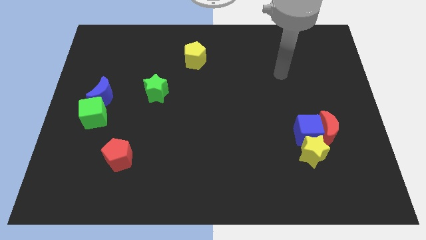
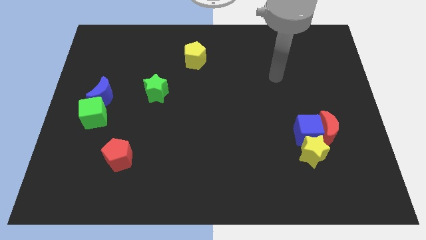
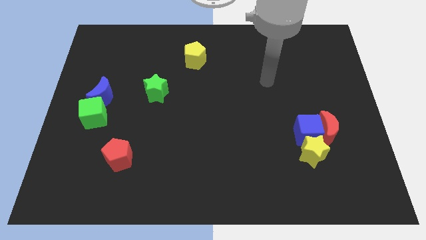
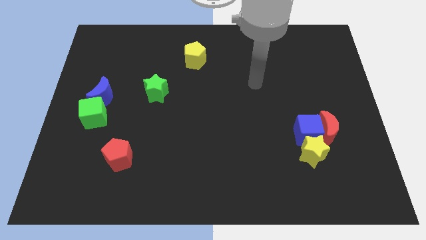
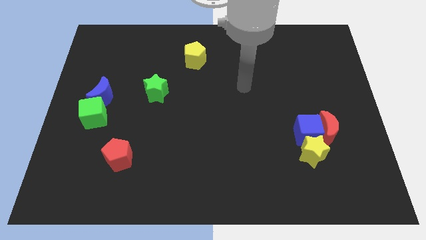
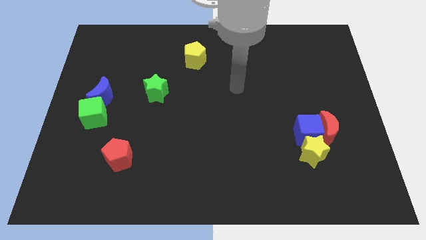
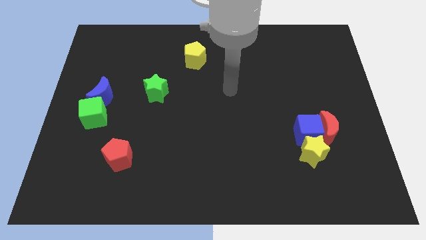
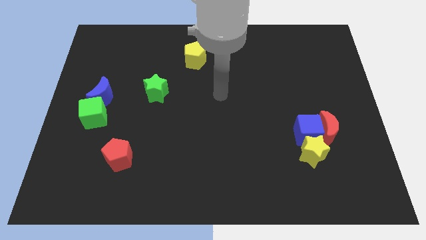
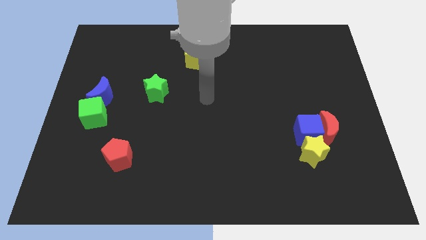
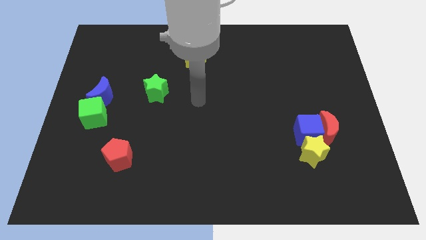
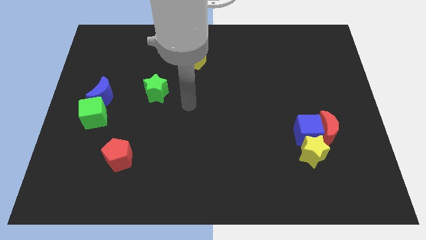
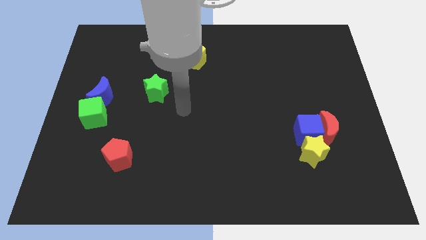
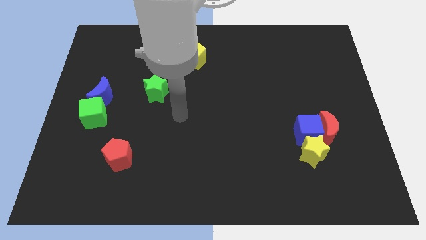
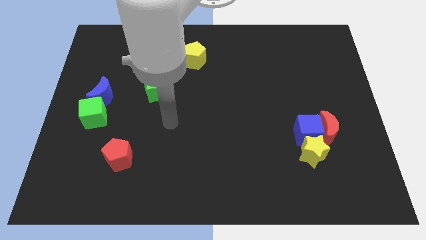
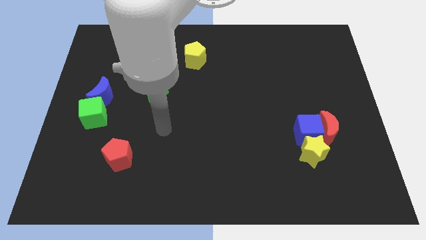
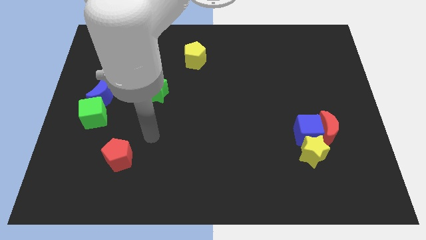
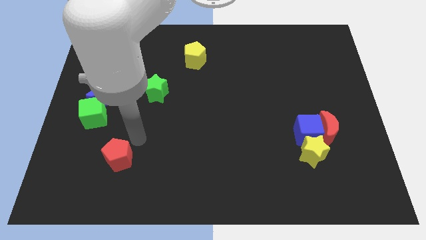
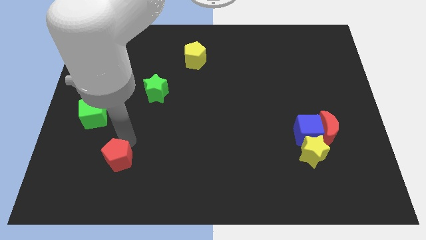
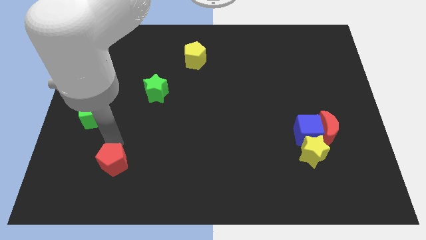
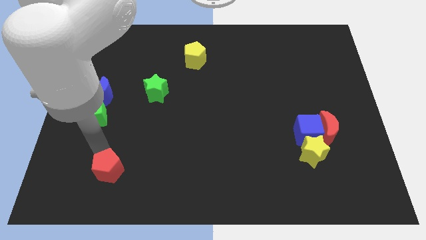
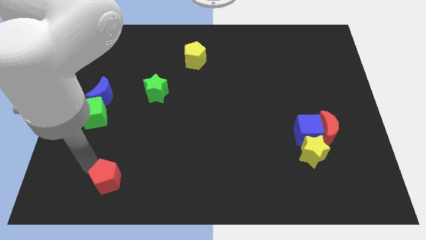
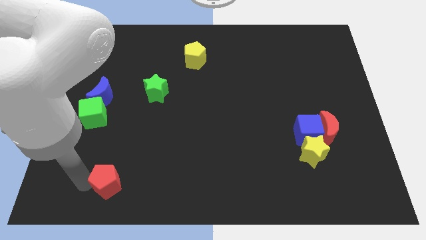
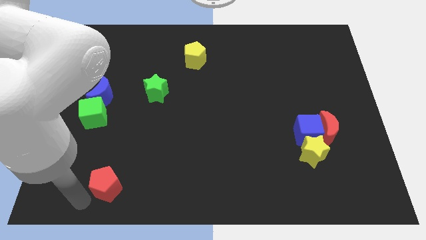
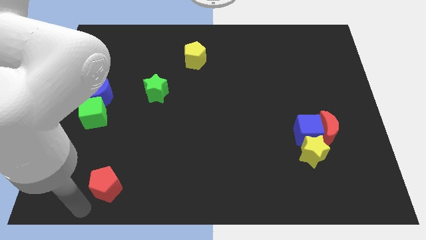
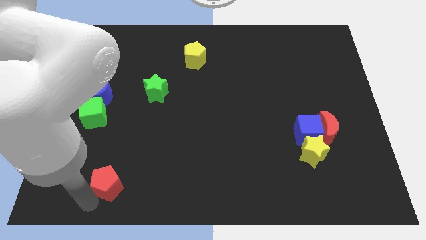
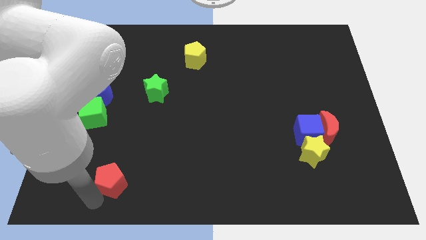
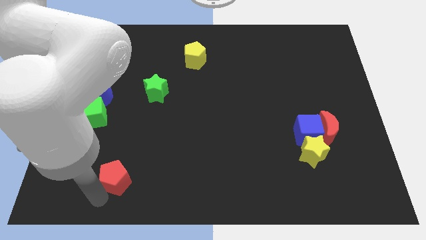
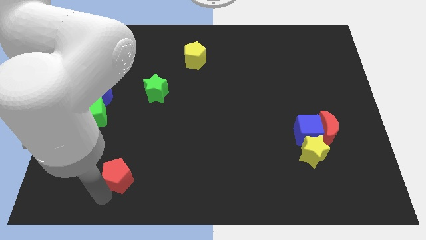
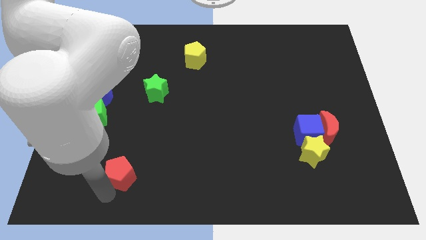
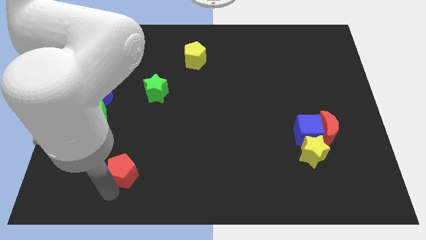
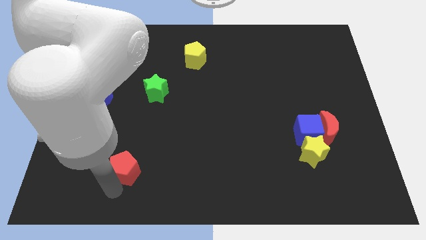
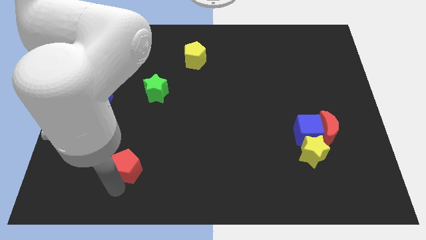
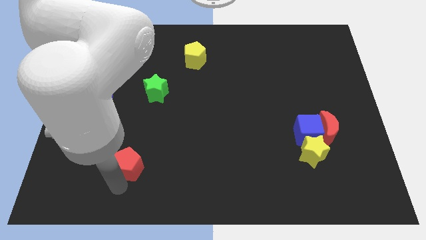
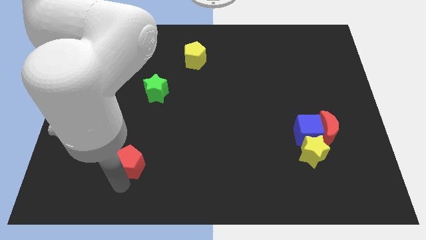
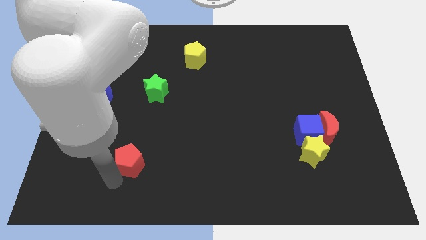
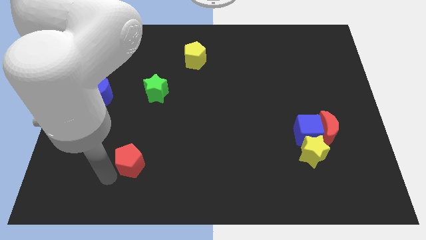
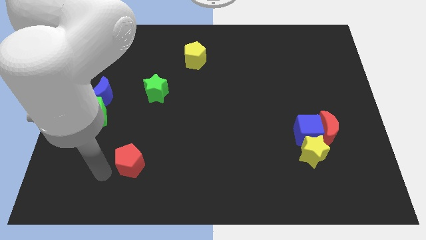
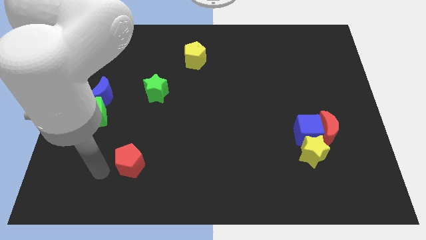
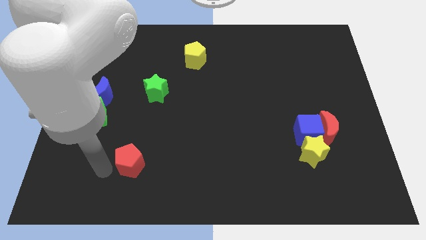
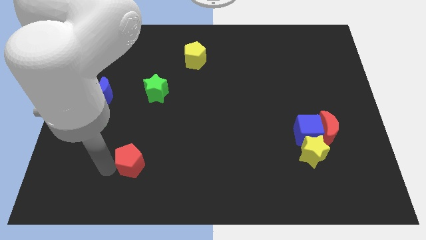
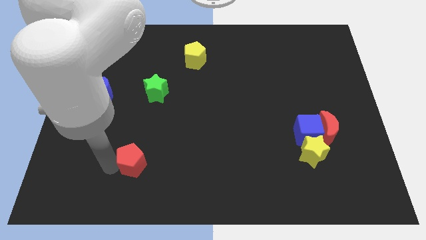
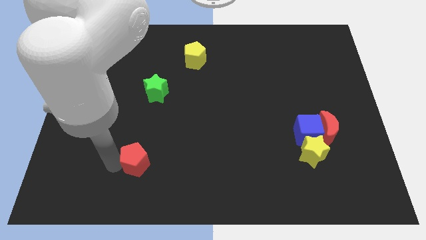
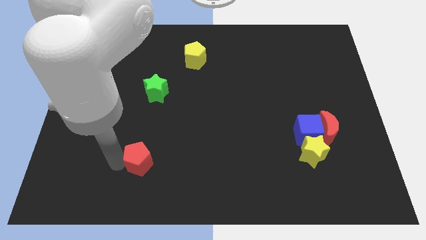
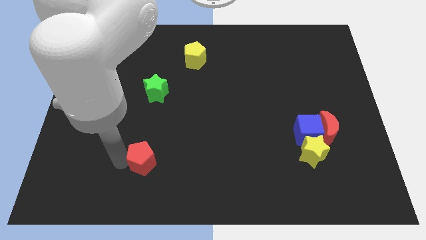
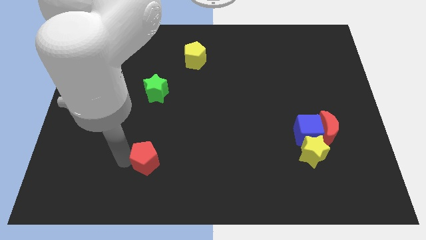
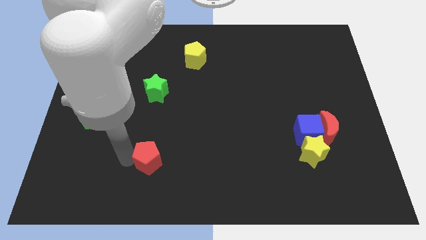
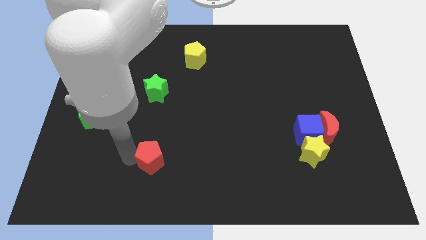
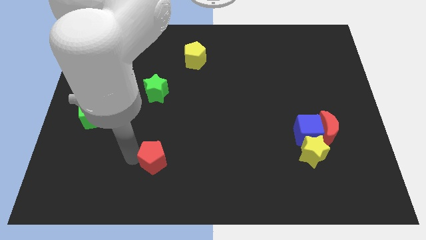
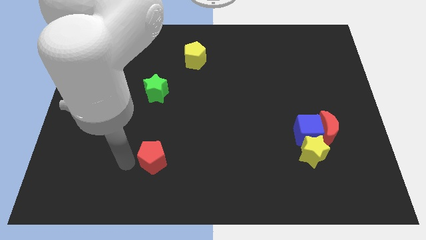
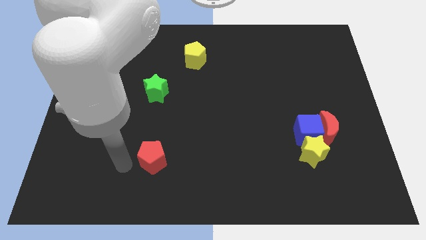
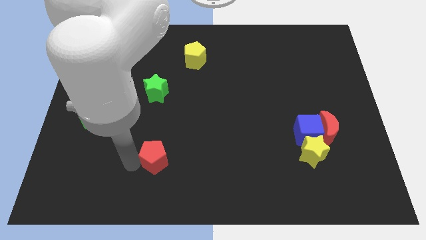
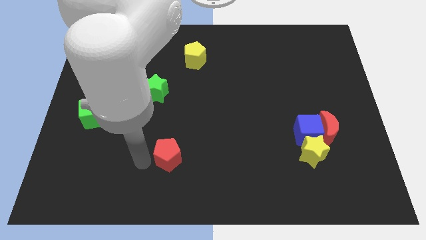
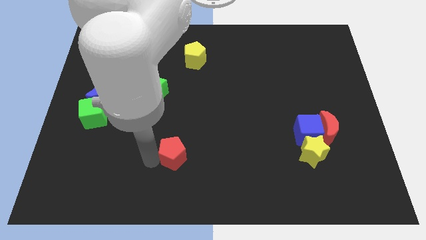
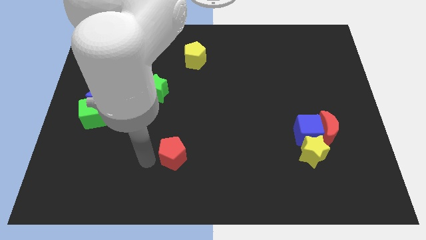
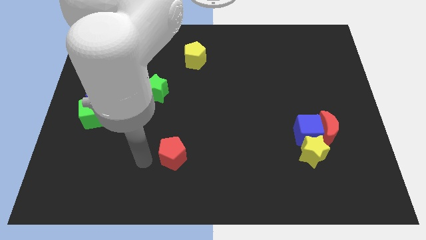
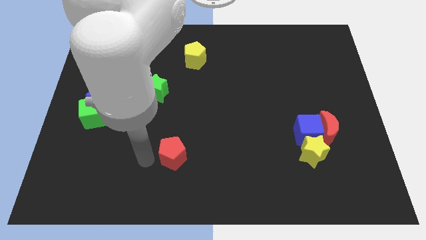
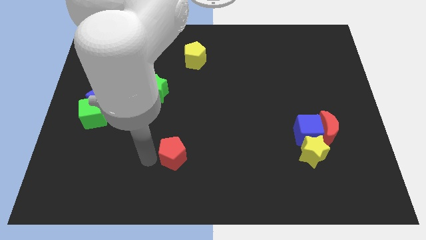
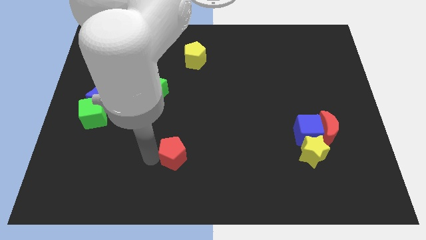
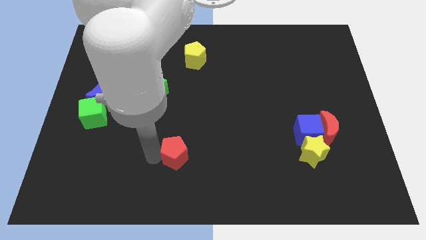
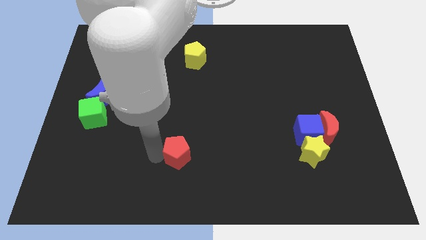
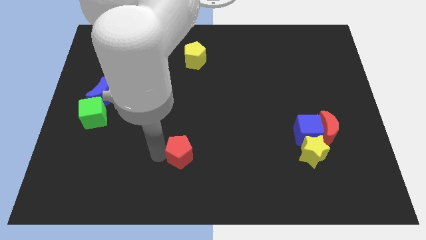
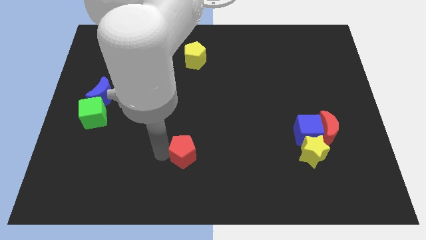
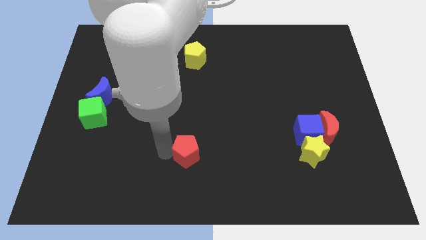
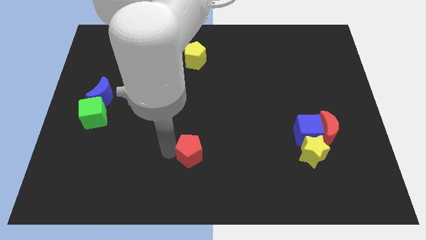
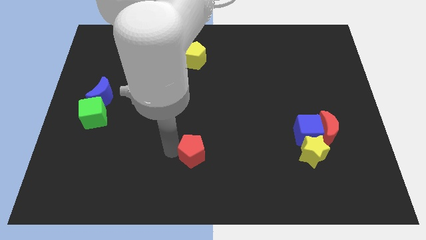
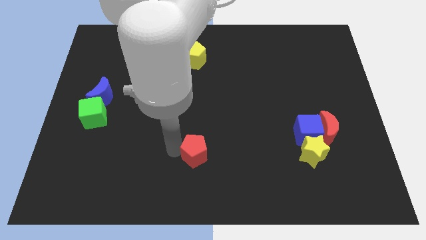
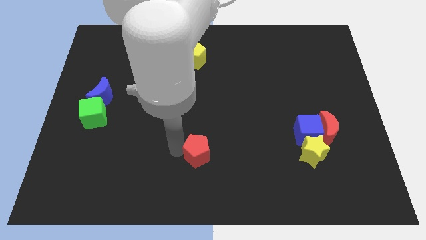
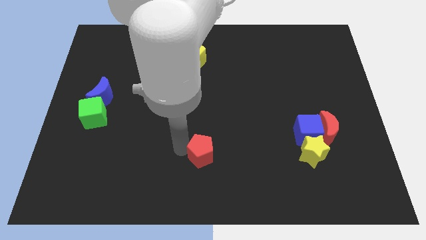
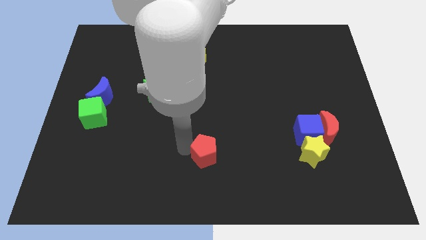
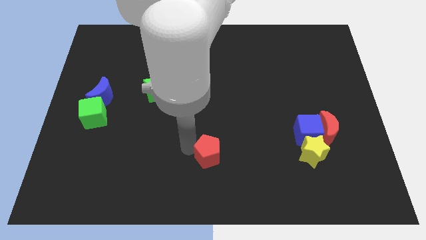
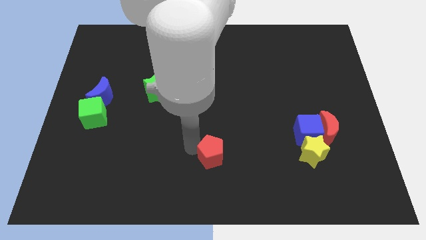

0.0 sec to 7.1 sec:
slide the red pentagon to the right

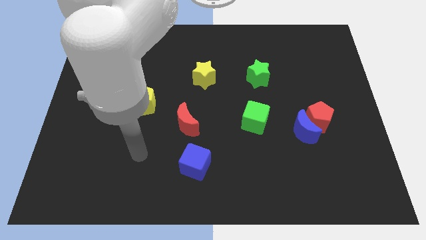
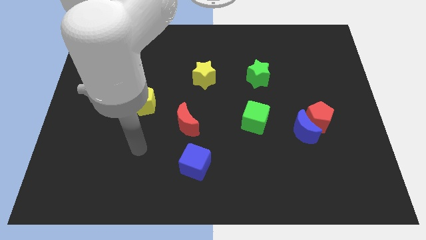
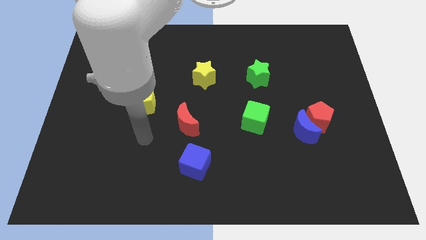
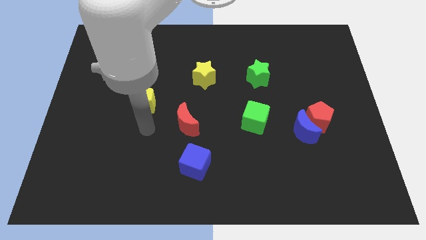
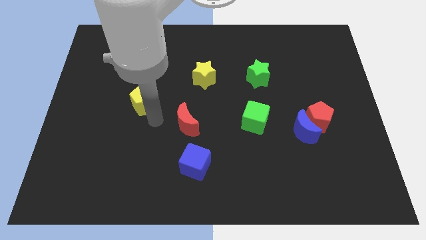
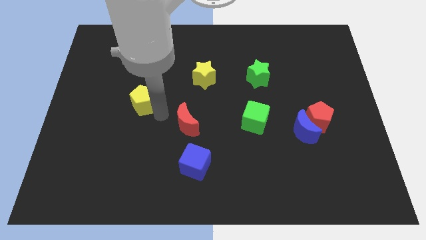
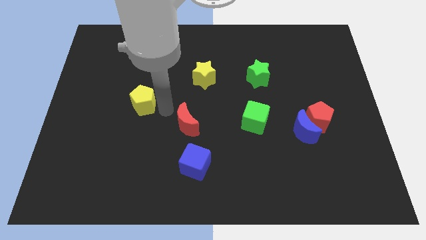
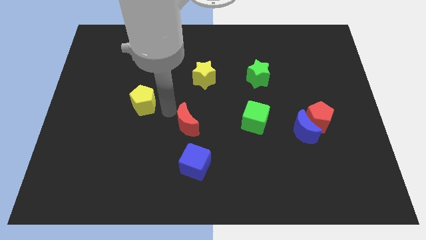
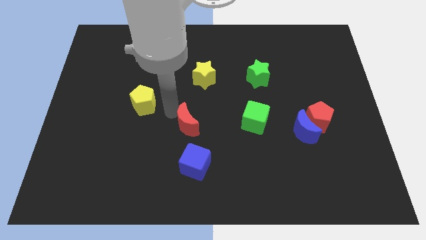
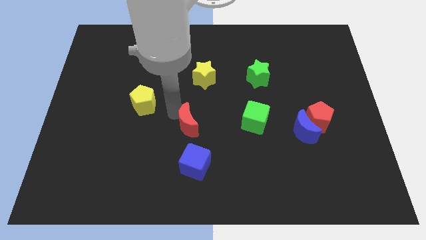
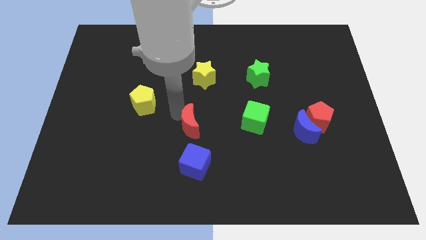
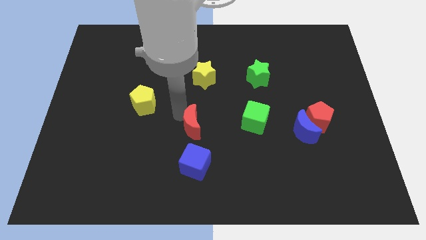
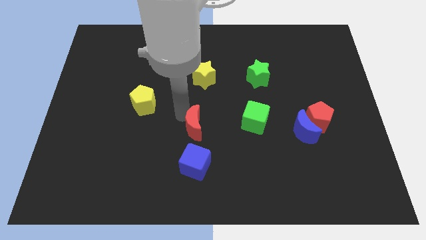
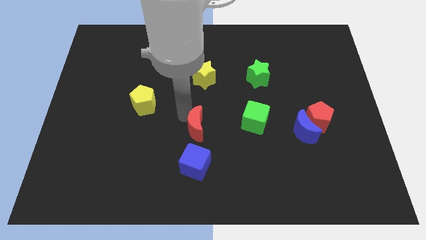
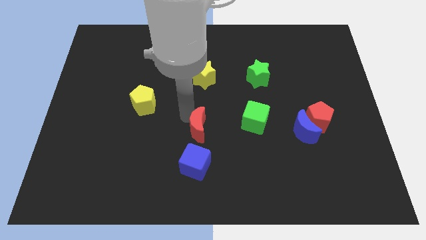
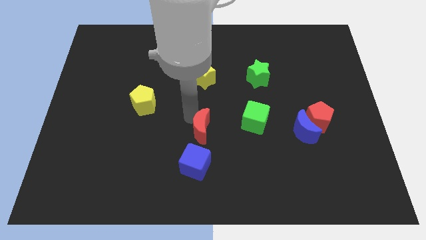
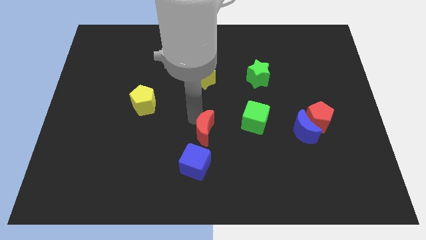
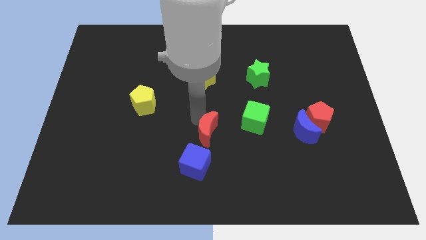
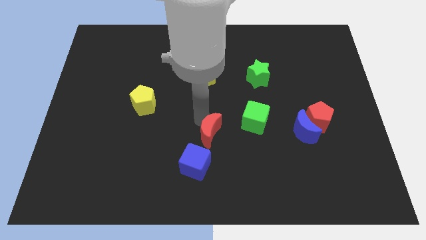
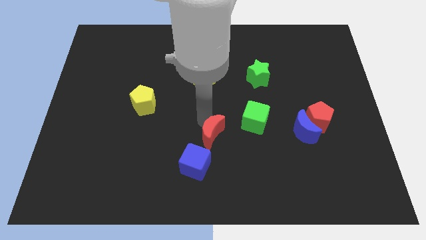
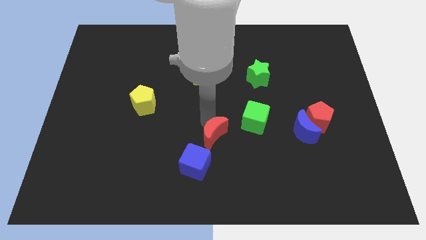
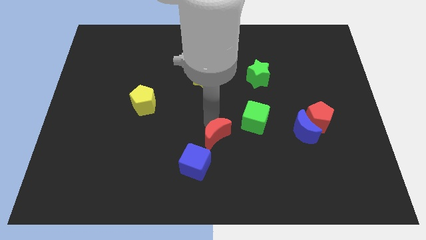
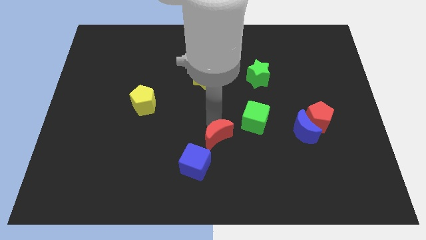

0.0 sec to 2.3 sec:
slightly push the red moon downwards and to the right
